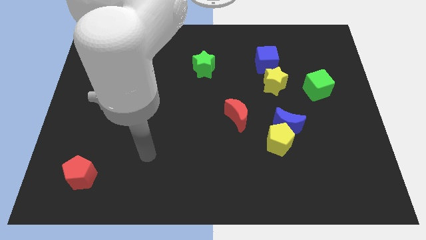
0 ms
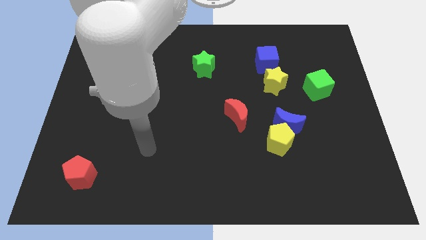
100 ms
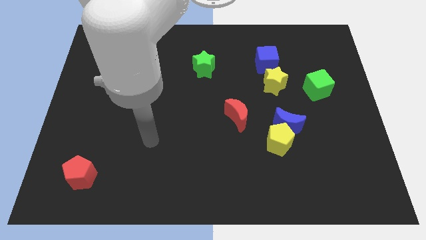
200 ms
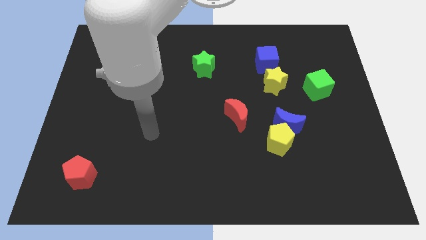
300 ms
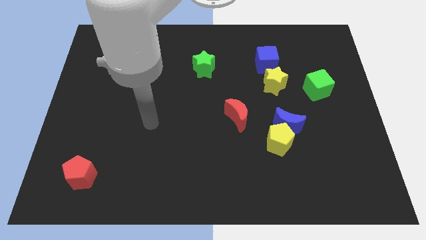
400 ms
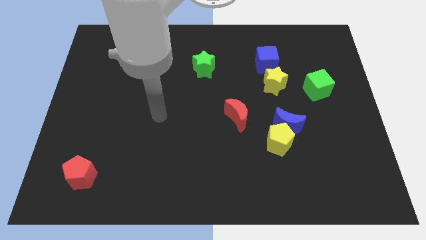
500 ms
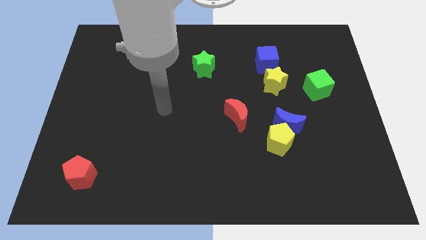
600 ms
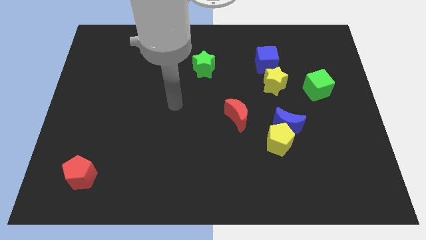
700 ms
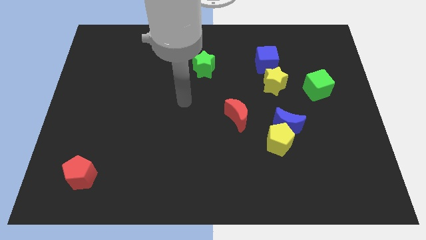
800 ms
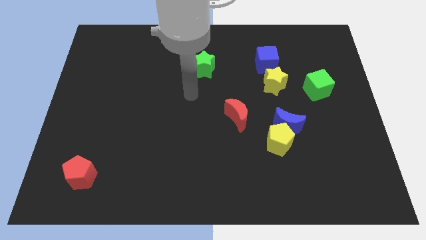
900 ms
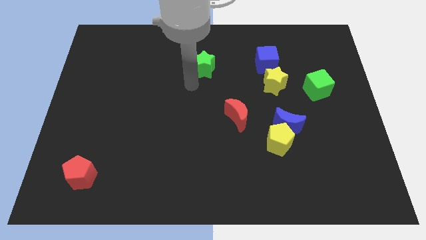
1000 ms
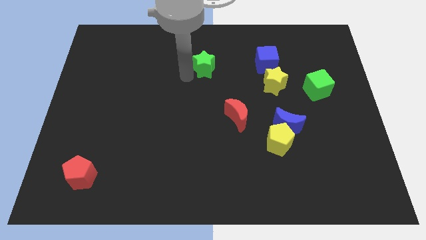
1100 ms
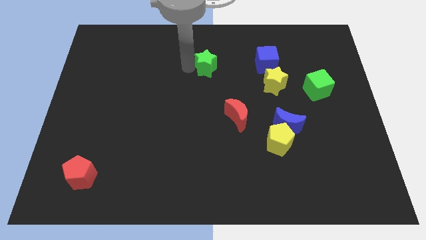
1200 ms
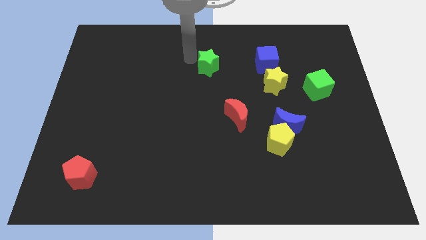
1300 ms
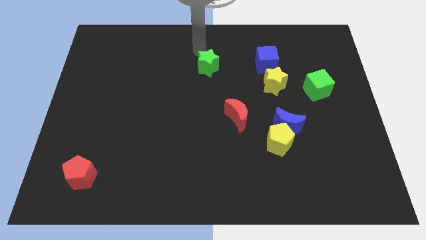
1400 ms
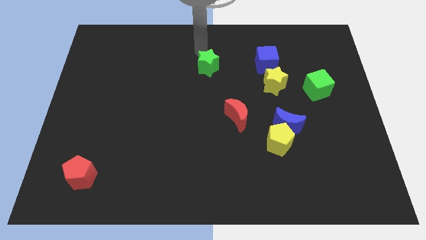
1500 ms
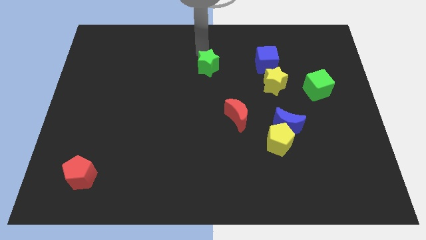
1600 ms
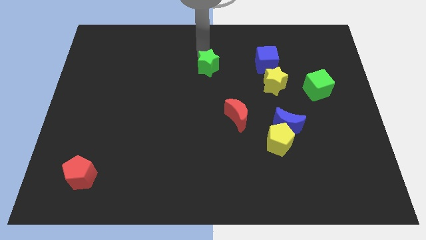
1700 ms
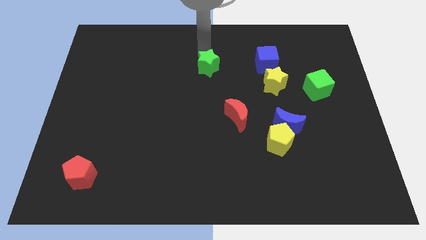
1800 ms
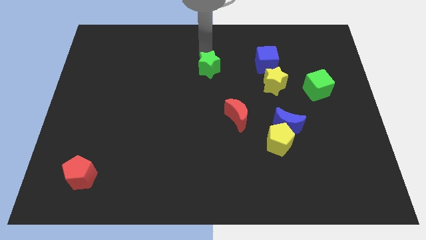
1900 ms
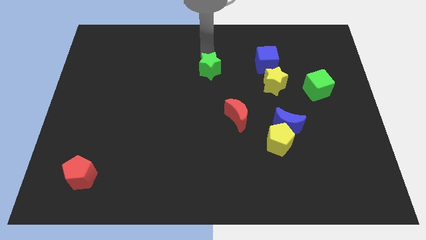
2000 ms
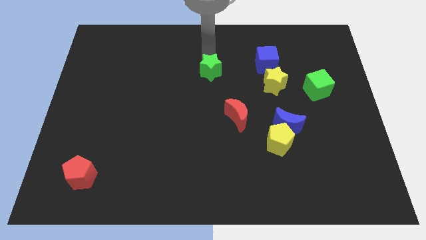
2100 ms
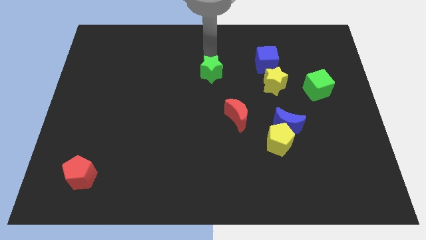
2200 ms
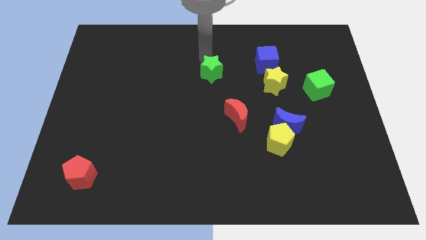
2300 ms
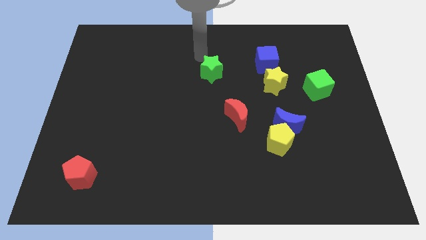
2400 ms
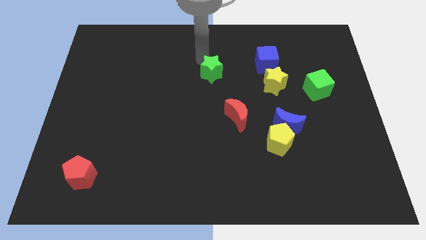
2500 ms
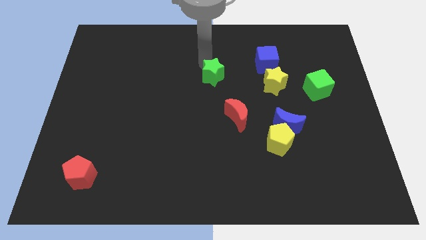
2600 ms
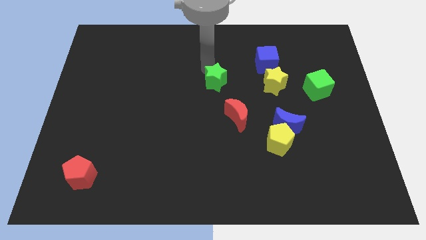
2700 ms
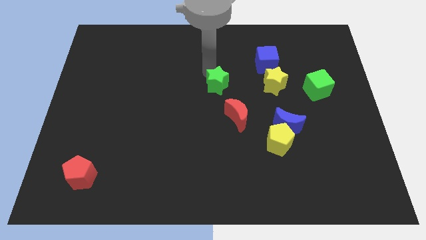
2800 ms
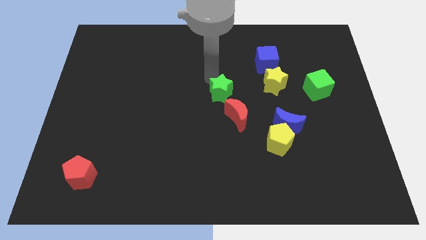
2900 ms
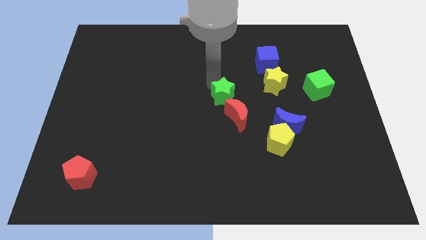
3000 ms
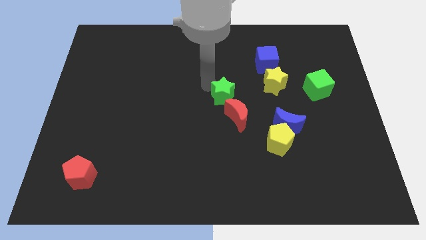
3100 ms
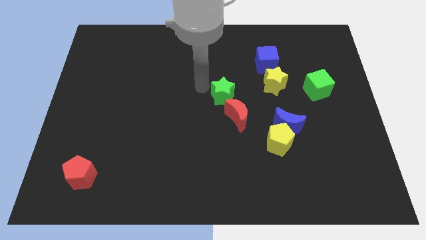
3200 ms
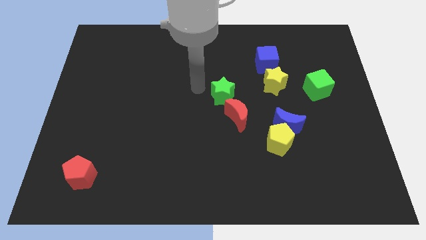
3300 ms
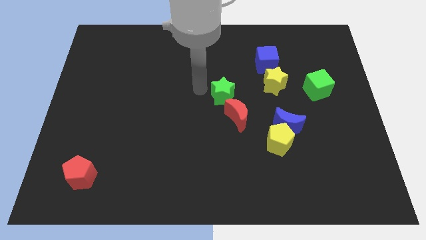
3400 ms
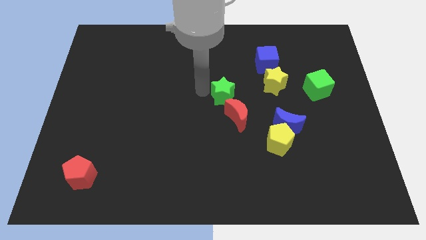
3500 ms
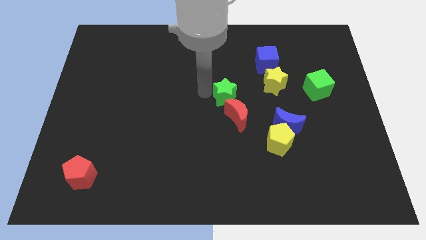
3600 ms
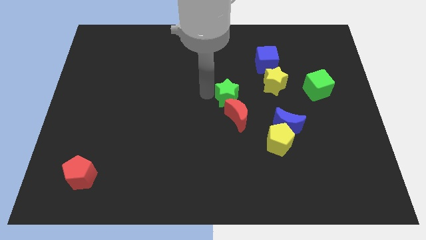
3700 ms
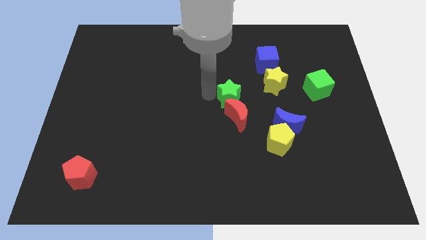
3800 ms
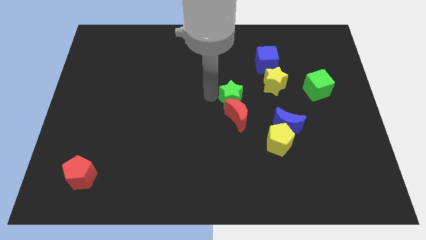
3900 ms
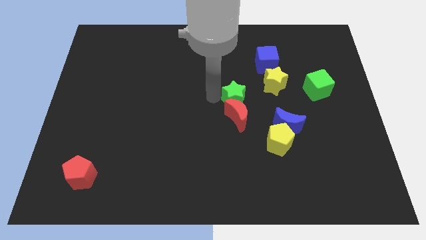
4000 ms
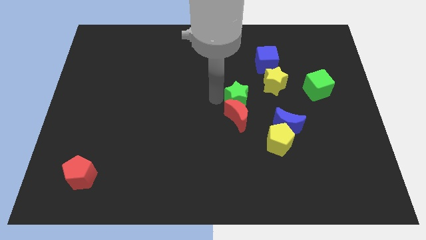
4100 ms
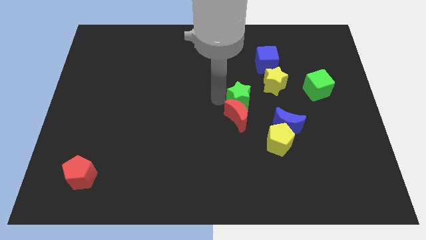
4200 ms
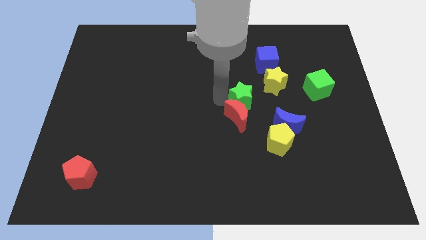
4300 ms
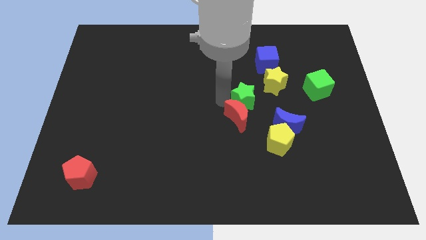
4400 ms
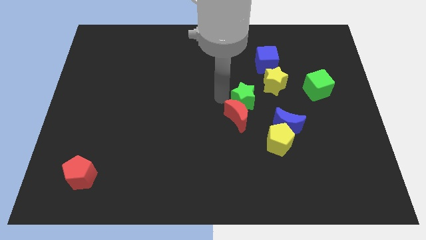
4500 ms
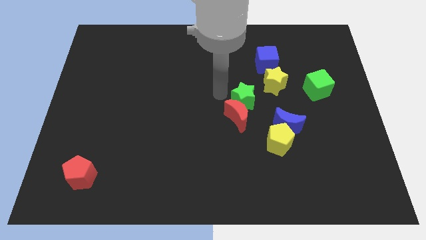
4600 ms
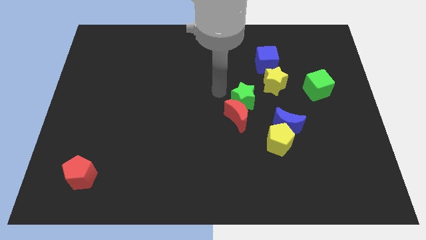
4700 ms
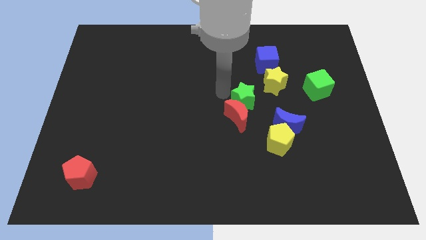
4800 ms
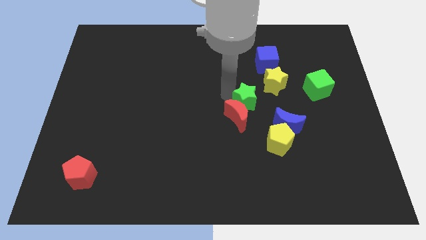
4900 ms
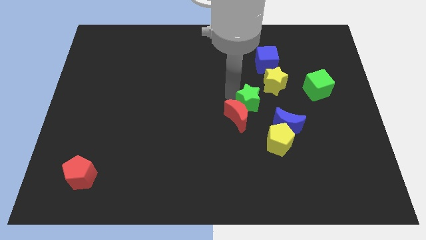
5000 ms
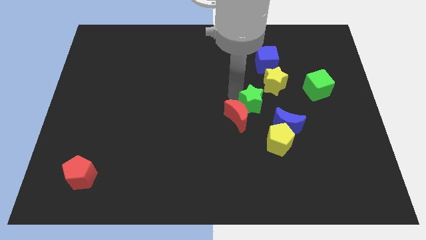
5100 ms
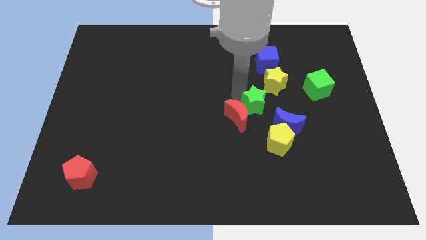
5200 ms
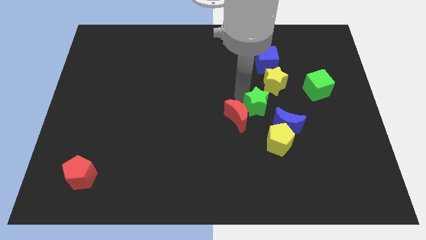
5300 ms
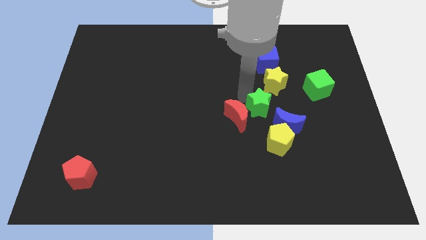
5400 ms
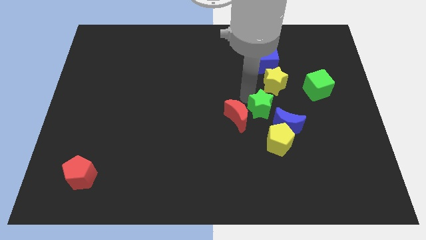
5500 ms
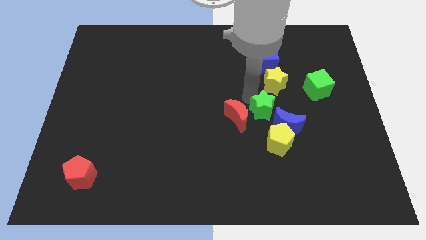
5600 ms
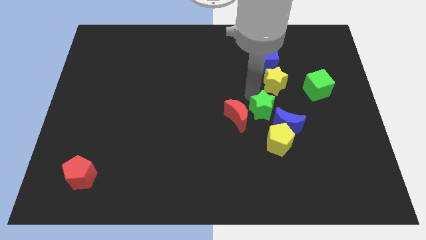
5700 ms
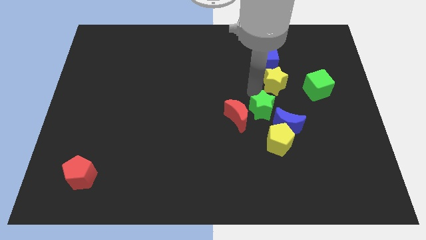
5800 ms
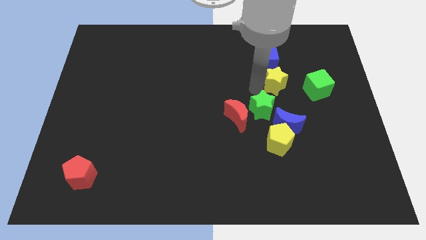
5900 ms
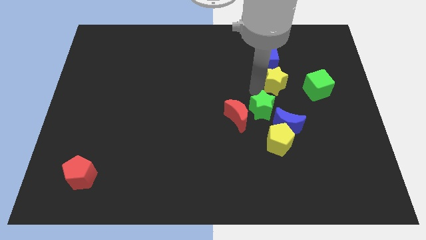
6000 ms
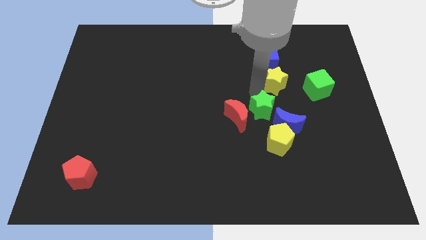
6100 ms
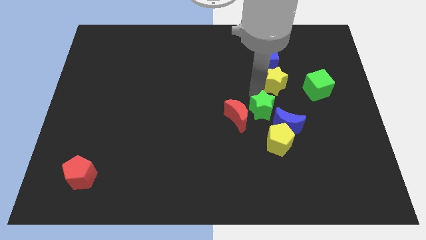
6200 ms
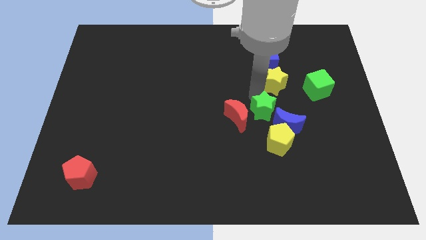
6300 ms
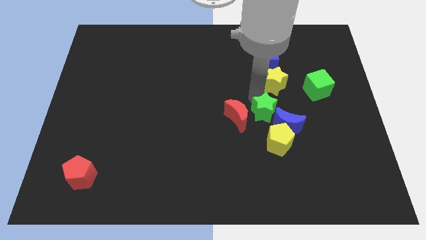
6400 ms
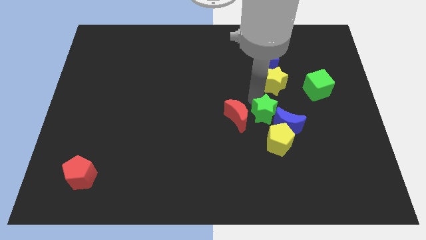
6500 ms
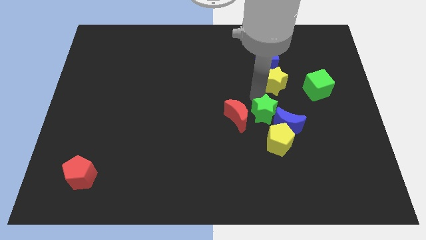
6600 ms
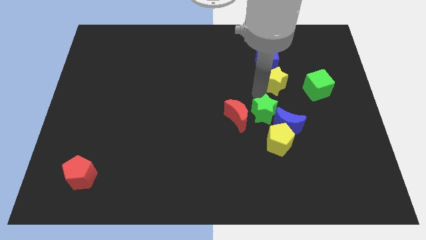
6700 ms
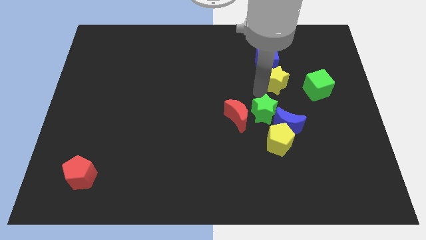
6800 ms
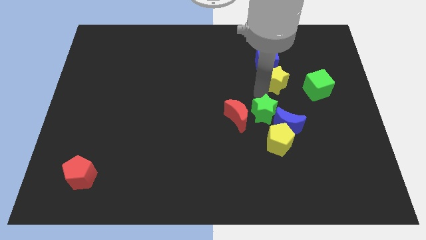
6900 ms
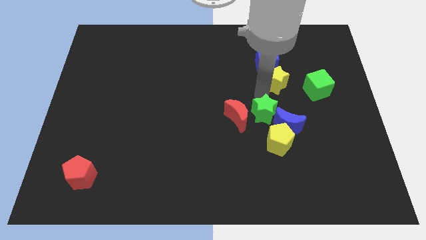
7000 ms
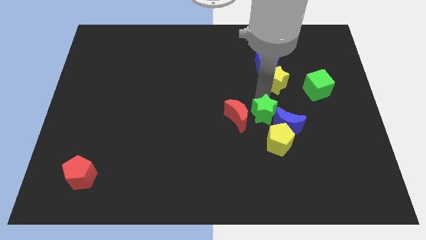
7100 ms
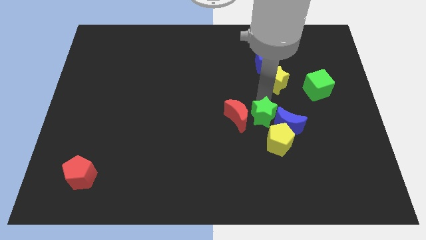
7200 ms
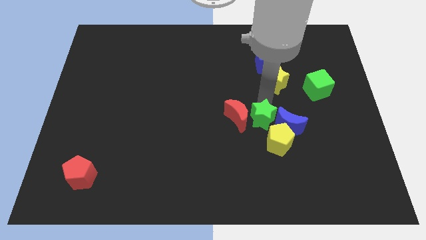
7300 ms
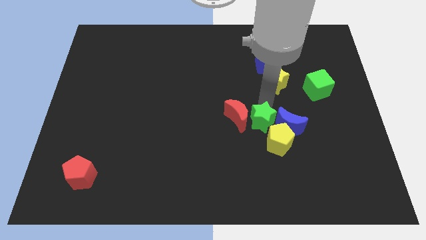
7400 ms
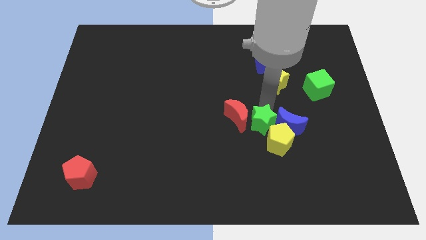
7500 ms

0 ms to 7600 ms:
put the green star to the yellow pentagon
